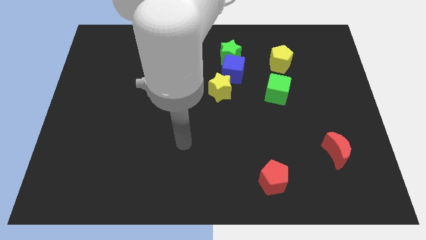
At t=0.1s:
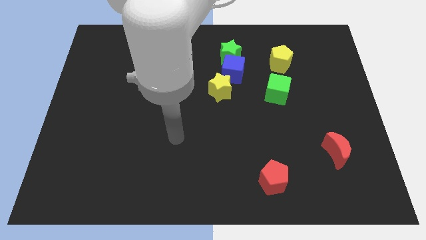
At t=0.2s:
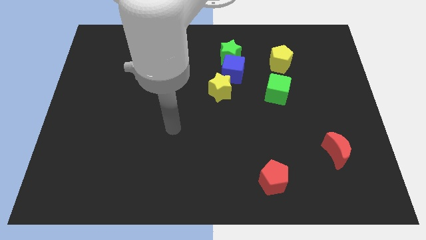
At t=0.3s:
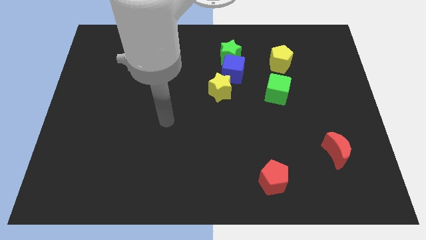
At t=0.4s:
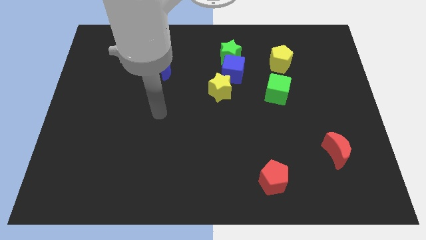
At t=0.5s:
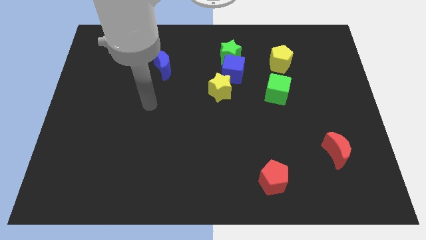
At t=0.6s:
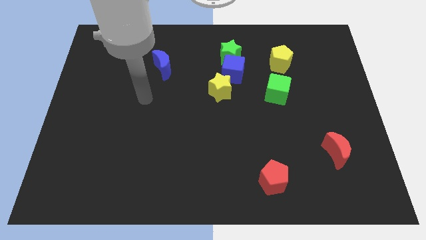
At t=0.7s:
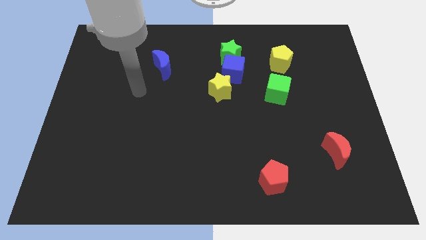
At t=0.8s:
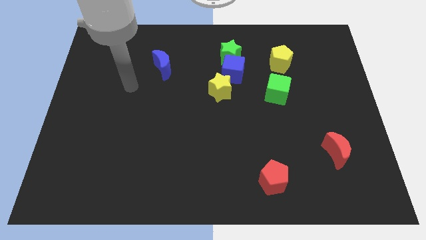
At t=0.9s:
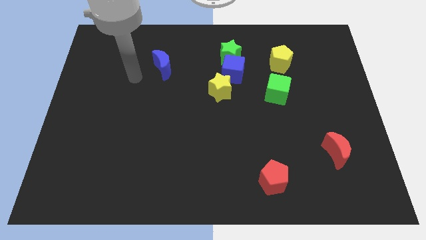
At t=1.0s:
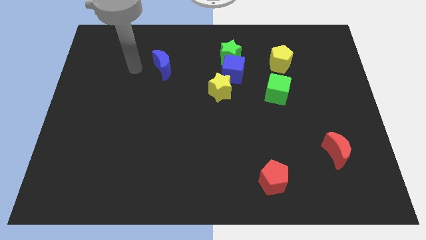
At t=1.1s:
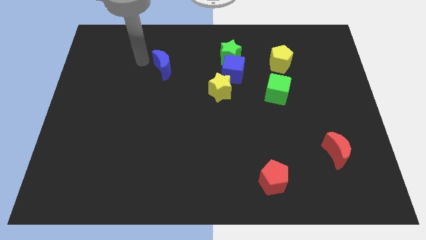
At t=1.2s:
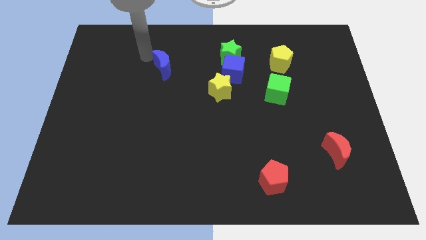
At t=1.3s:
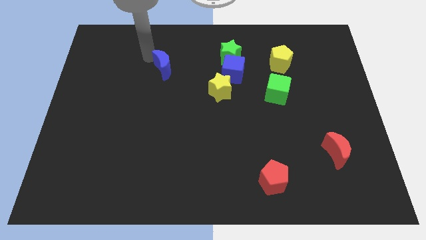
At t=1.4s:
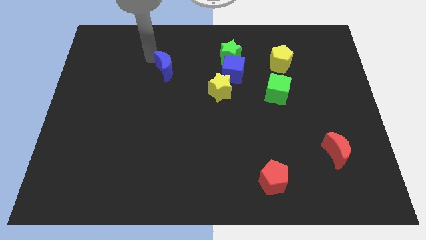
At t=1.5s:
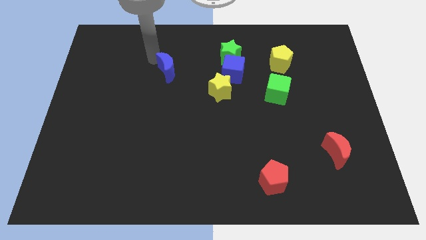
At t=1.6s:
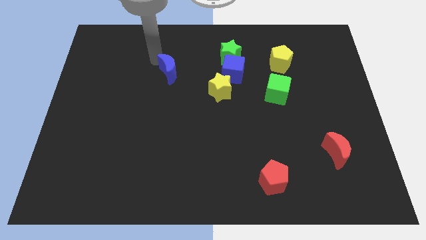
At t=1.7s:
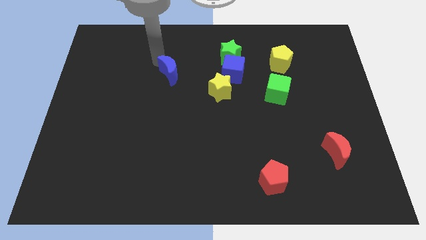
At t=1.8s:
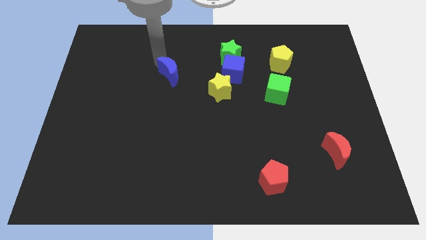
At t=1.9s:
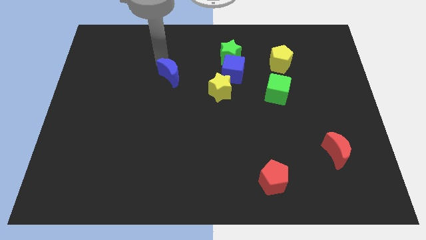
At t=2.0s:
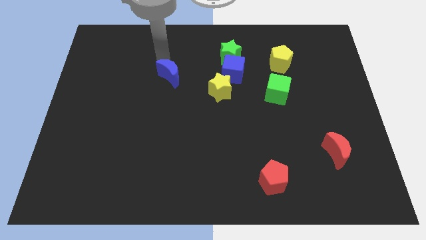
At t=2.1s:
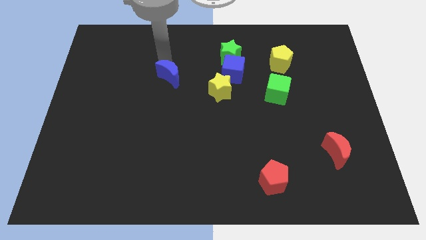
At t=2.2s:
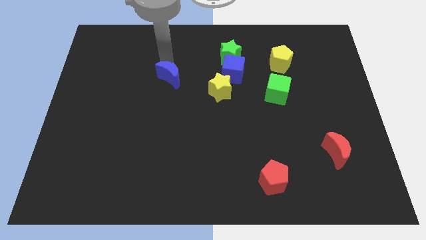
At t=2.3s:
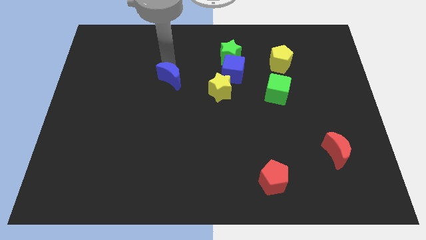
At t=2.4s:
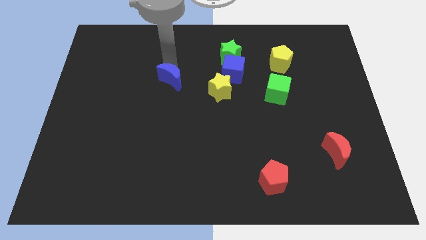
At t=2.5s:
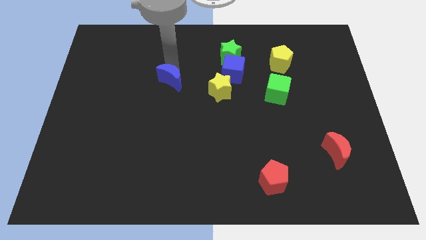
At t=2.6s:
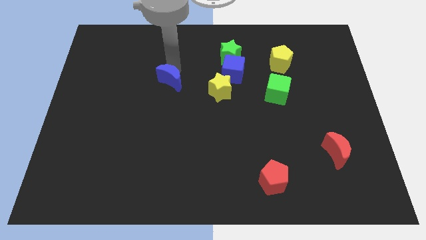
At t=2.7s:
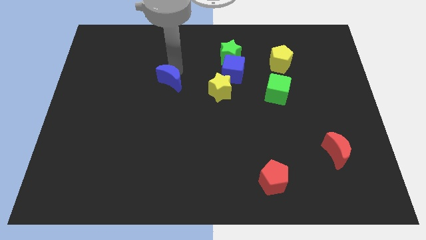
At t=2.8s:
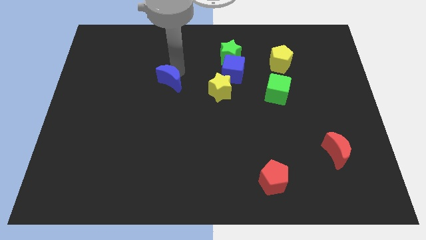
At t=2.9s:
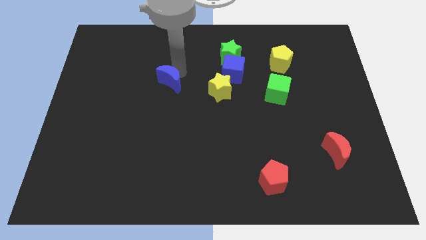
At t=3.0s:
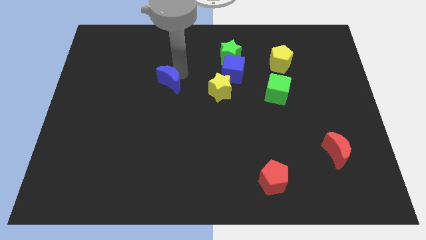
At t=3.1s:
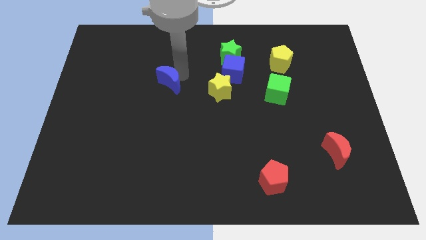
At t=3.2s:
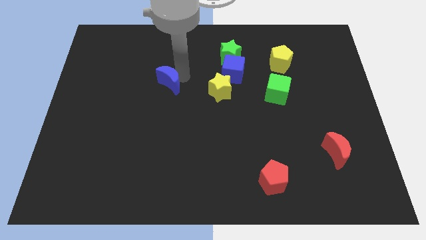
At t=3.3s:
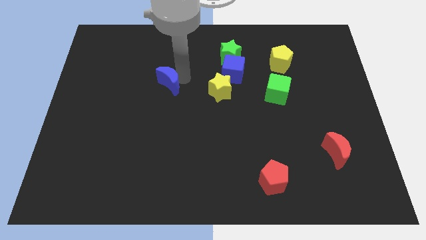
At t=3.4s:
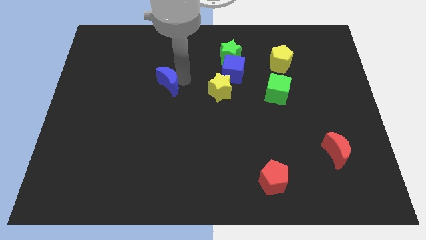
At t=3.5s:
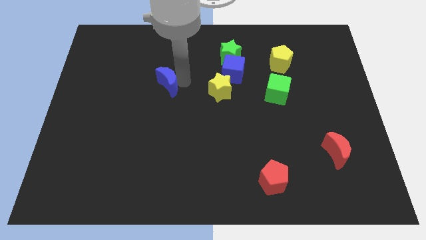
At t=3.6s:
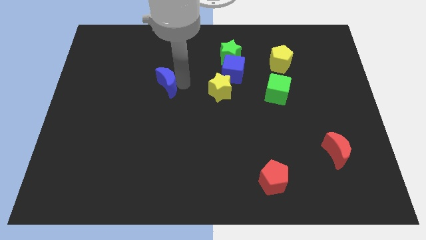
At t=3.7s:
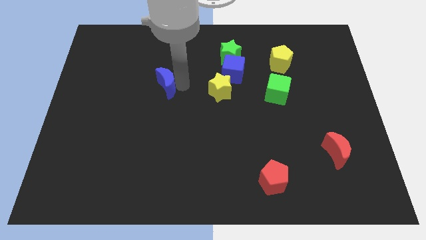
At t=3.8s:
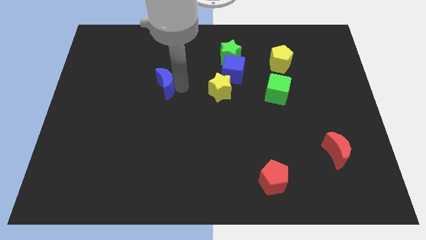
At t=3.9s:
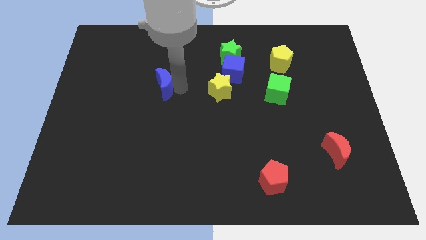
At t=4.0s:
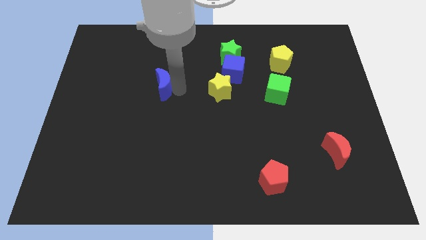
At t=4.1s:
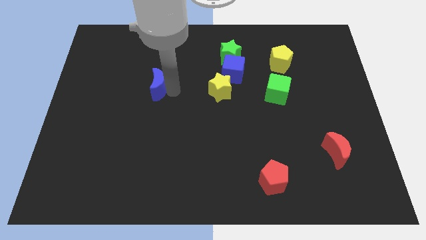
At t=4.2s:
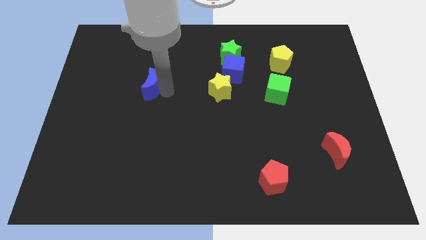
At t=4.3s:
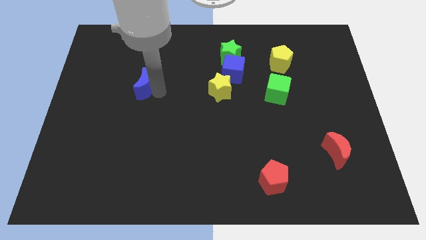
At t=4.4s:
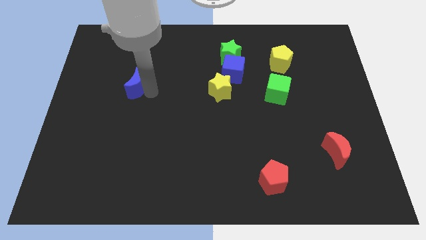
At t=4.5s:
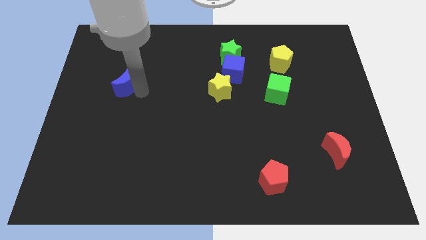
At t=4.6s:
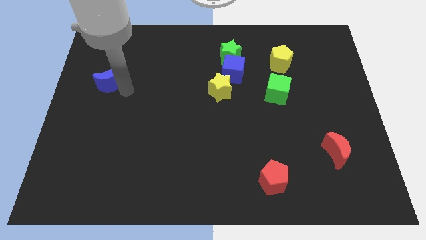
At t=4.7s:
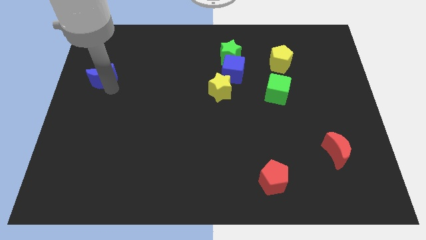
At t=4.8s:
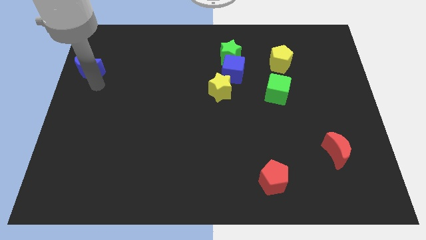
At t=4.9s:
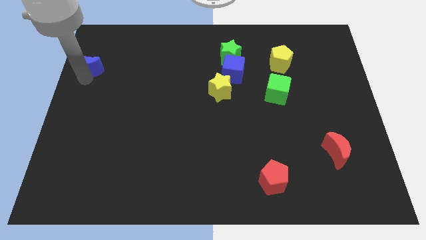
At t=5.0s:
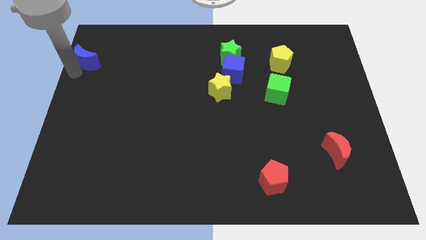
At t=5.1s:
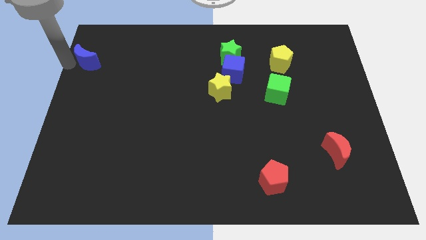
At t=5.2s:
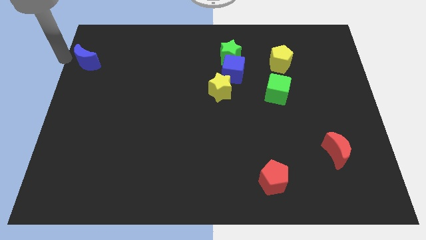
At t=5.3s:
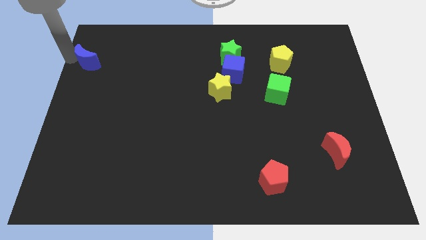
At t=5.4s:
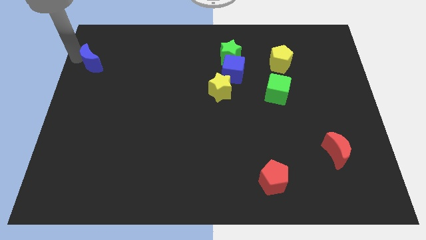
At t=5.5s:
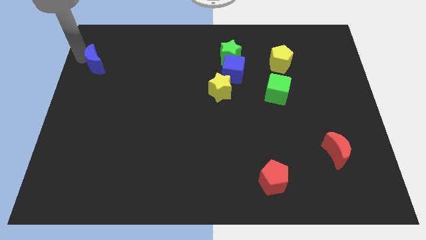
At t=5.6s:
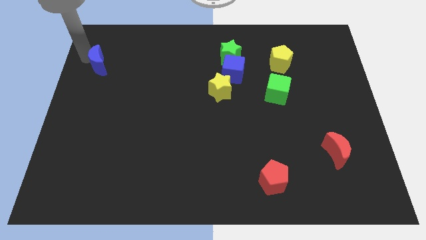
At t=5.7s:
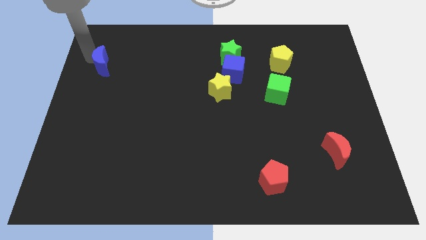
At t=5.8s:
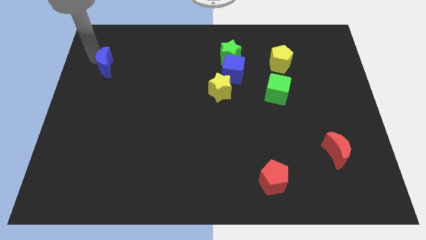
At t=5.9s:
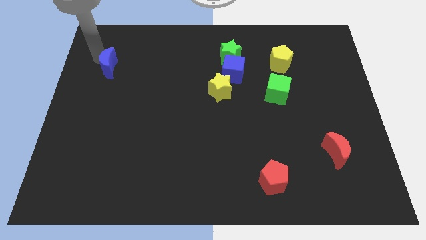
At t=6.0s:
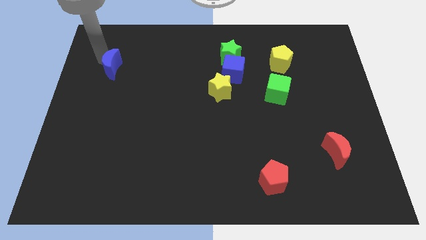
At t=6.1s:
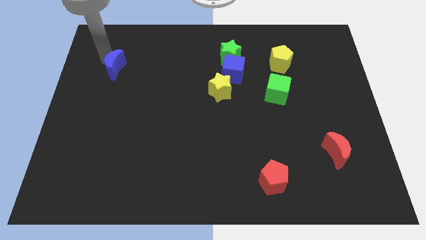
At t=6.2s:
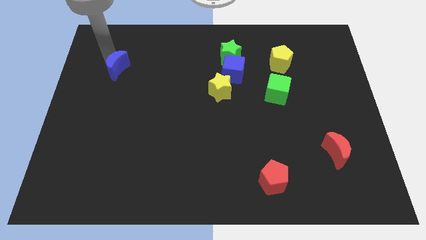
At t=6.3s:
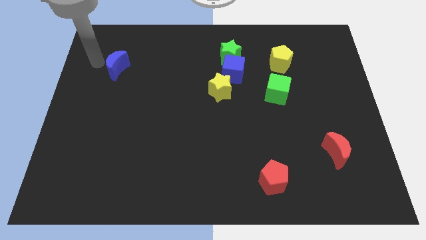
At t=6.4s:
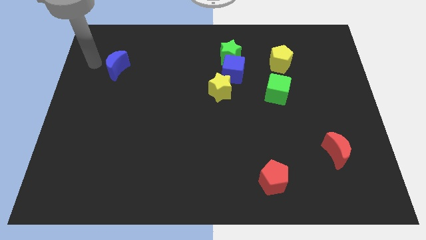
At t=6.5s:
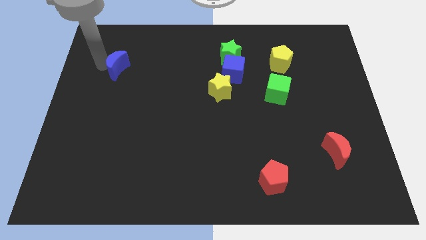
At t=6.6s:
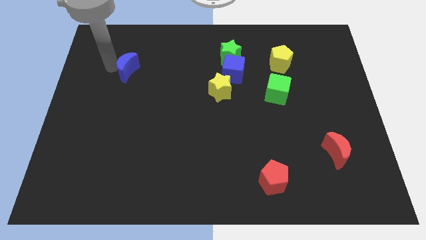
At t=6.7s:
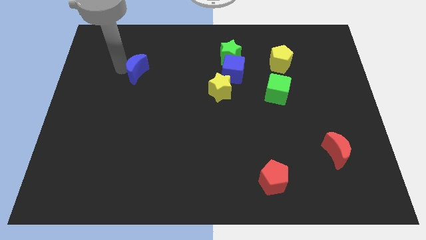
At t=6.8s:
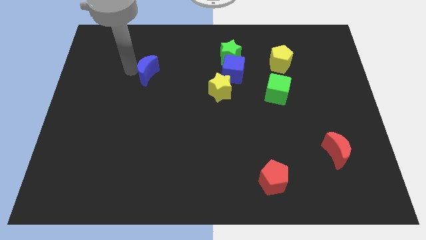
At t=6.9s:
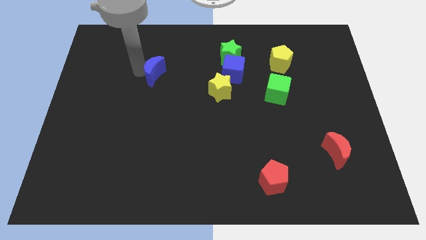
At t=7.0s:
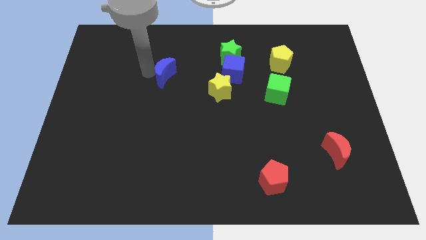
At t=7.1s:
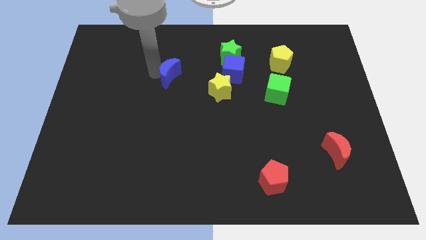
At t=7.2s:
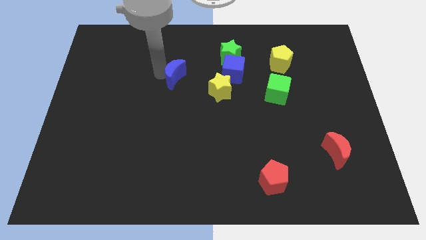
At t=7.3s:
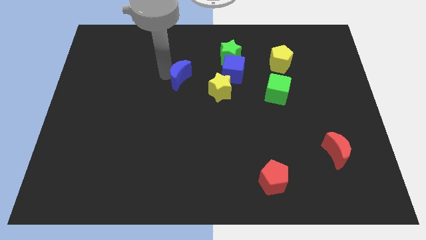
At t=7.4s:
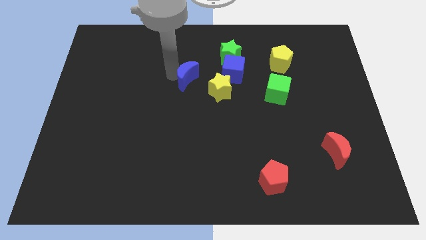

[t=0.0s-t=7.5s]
slightly slide the blue moon downwards and then to the right

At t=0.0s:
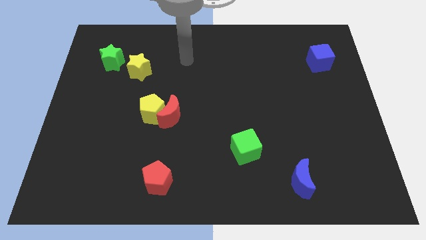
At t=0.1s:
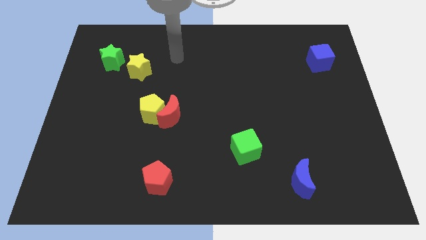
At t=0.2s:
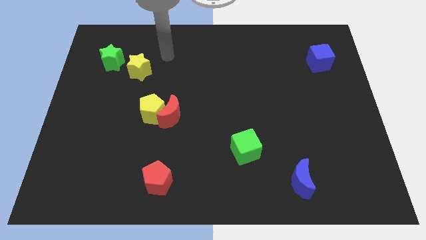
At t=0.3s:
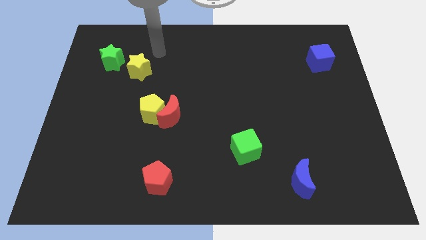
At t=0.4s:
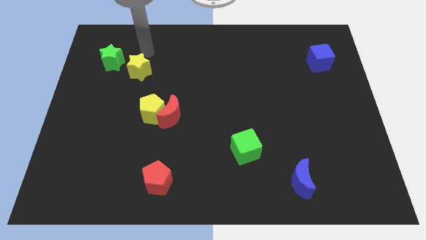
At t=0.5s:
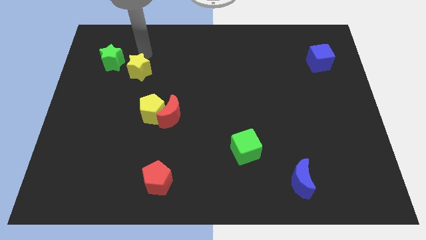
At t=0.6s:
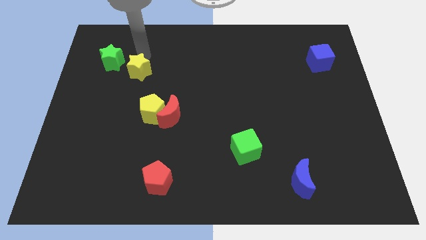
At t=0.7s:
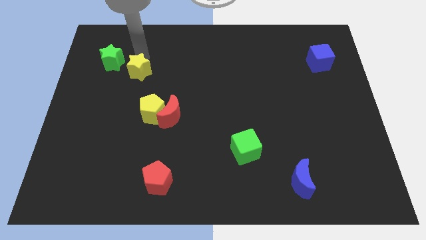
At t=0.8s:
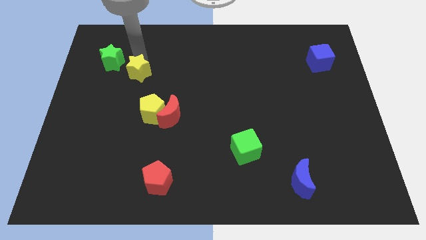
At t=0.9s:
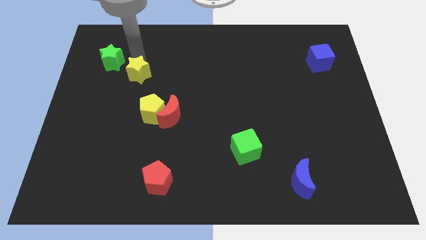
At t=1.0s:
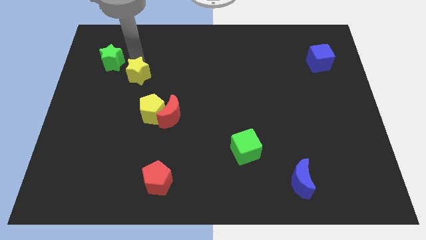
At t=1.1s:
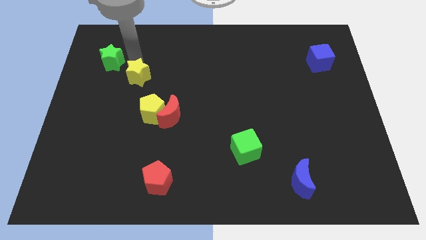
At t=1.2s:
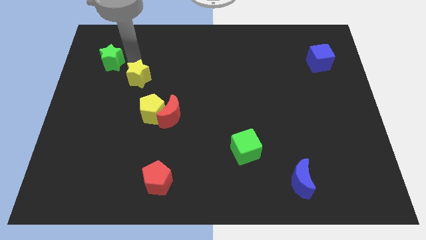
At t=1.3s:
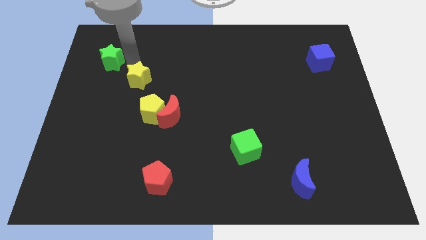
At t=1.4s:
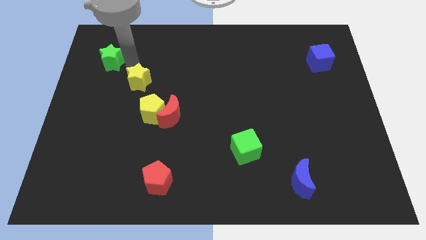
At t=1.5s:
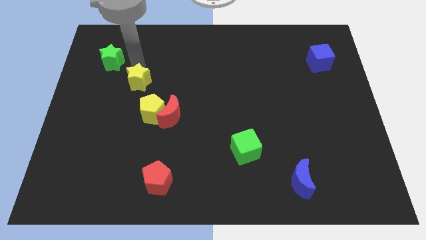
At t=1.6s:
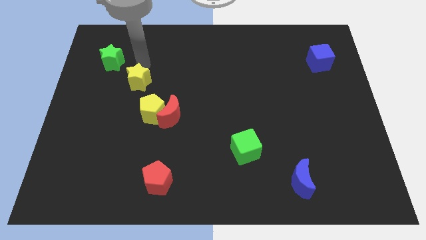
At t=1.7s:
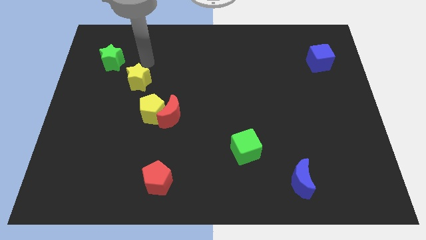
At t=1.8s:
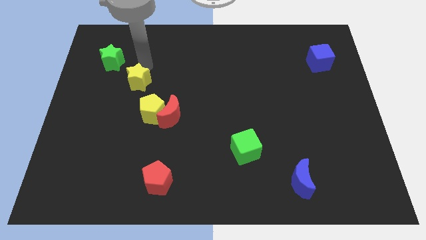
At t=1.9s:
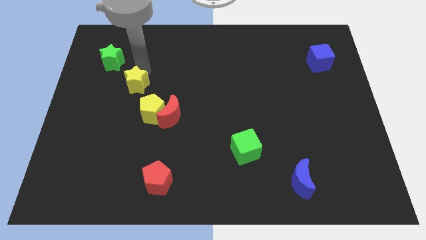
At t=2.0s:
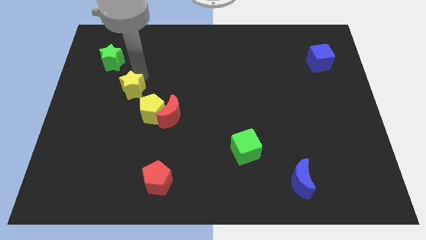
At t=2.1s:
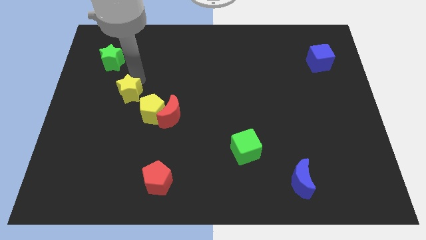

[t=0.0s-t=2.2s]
move the yellow star a little bit down
